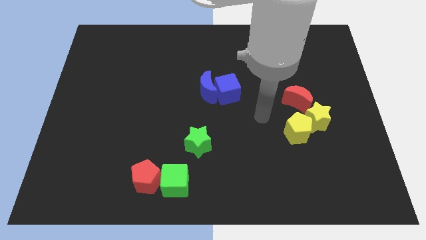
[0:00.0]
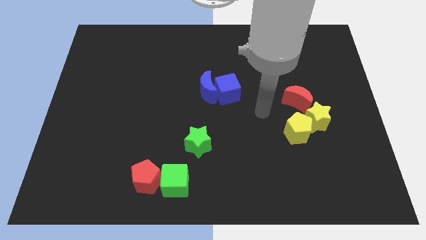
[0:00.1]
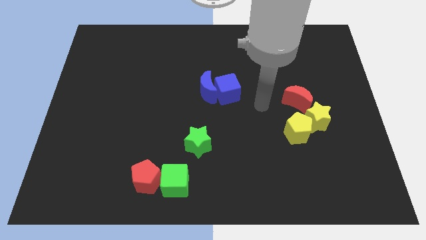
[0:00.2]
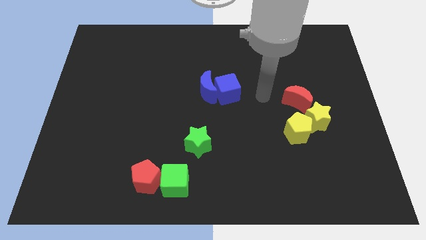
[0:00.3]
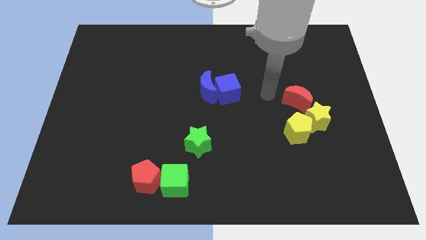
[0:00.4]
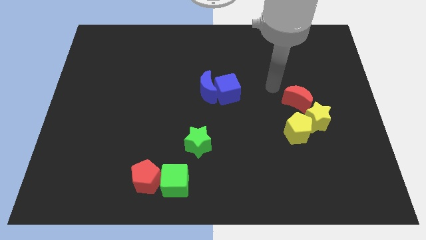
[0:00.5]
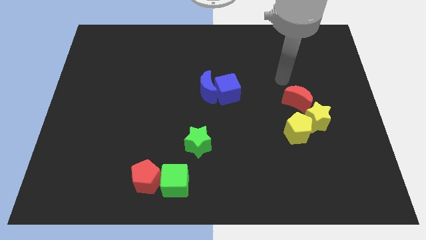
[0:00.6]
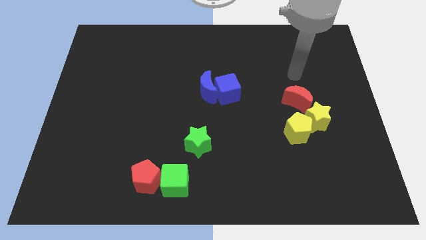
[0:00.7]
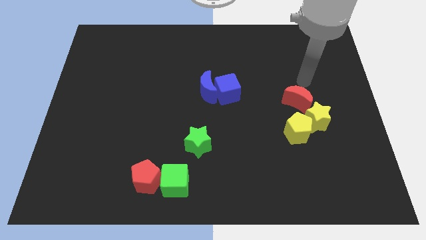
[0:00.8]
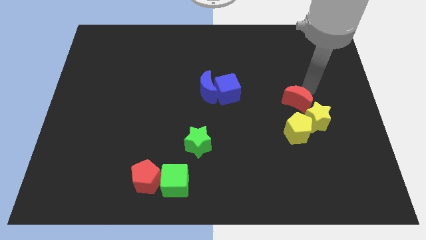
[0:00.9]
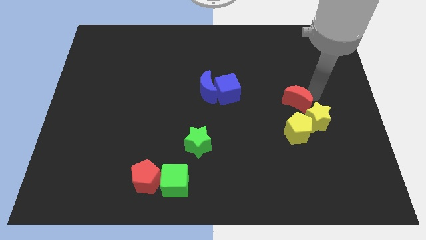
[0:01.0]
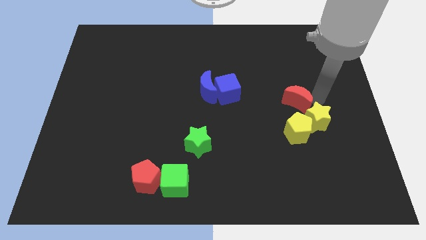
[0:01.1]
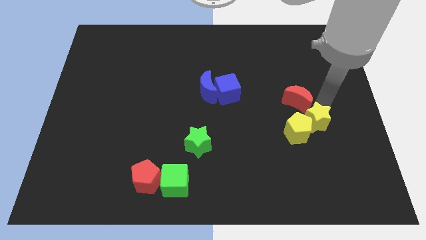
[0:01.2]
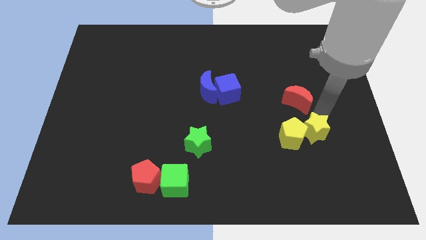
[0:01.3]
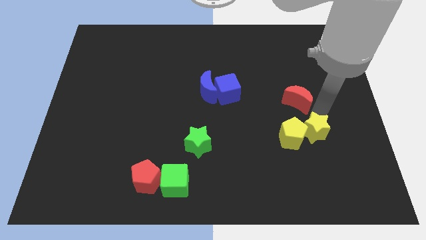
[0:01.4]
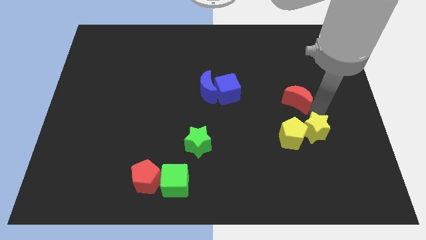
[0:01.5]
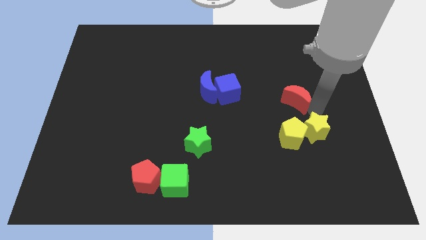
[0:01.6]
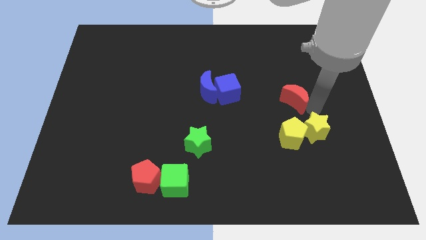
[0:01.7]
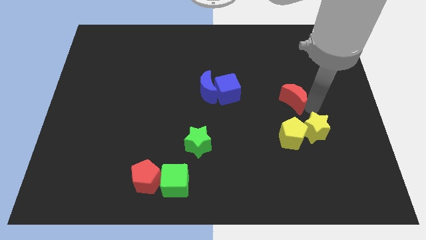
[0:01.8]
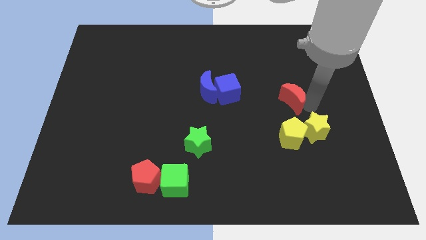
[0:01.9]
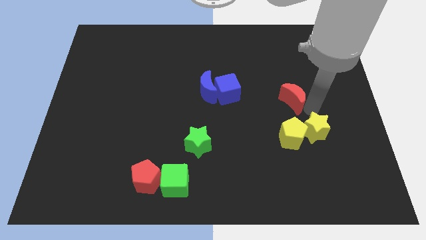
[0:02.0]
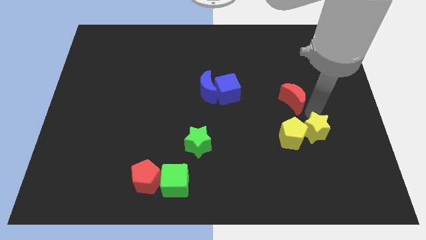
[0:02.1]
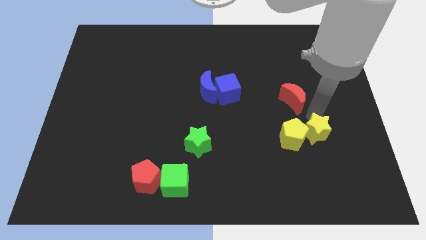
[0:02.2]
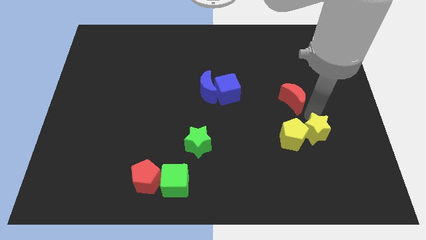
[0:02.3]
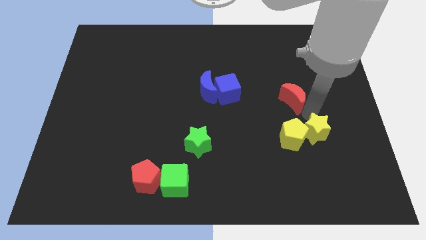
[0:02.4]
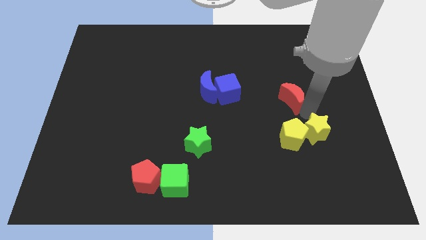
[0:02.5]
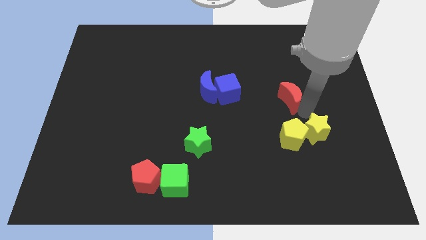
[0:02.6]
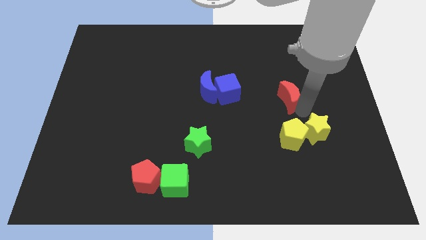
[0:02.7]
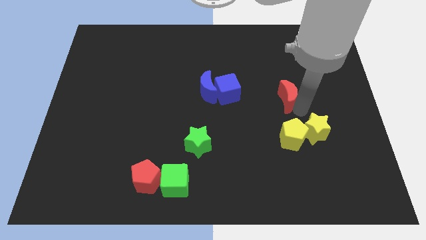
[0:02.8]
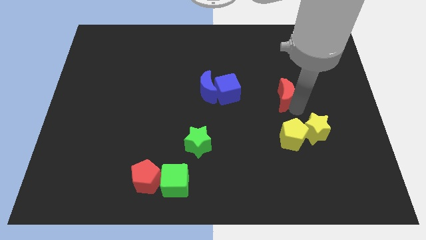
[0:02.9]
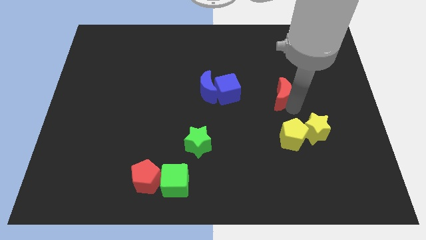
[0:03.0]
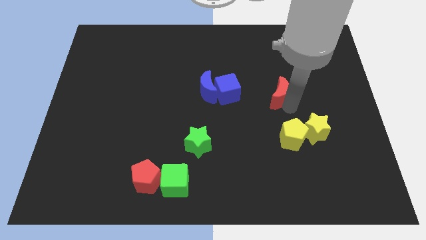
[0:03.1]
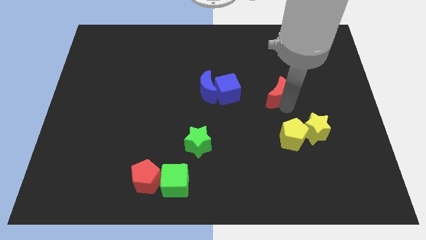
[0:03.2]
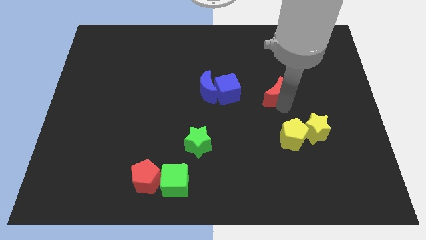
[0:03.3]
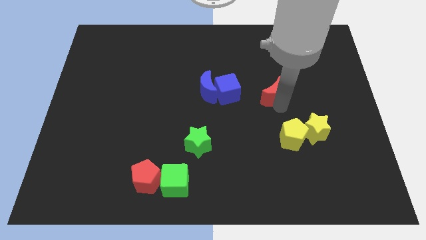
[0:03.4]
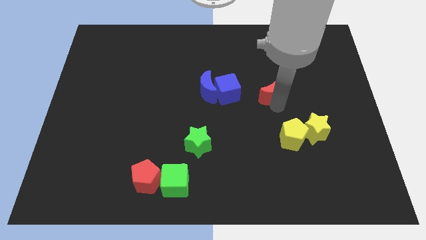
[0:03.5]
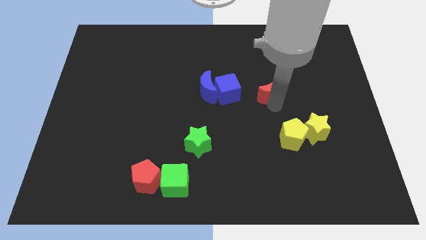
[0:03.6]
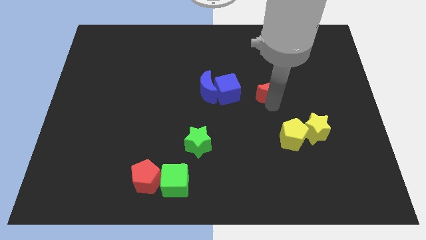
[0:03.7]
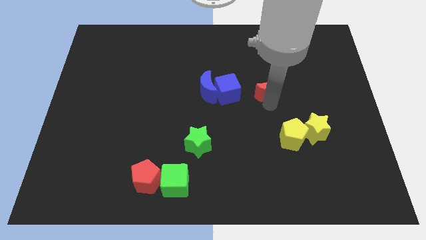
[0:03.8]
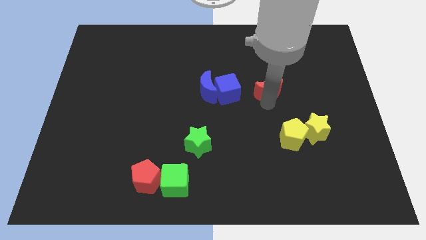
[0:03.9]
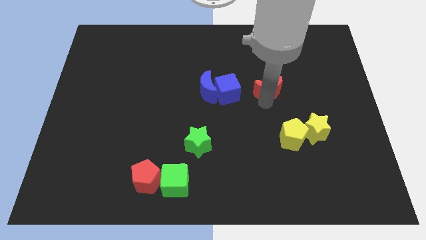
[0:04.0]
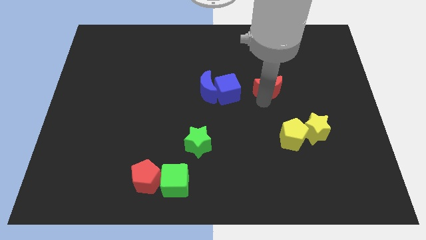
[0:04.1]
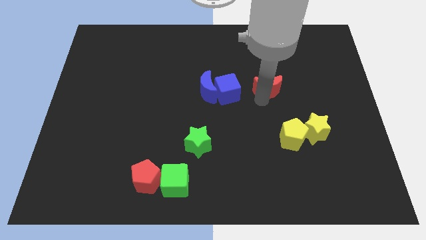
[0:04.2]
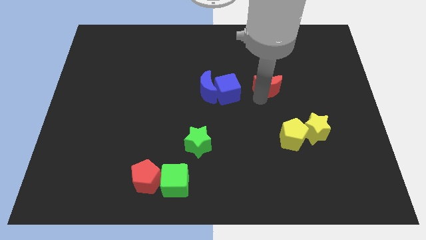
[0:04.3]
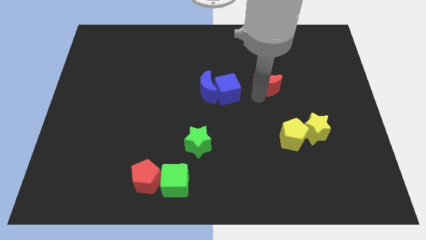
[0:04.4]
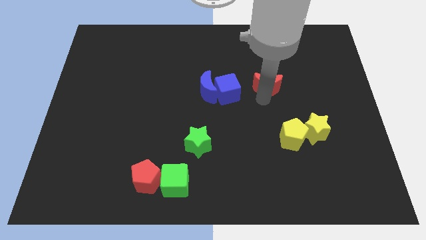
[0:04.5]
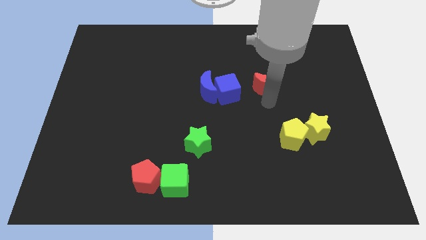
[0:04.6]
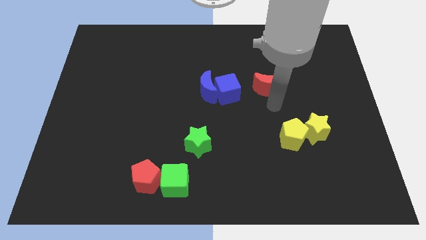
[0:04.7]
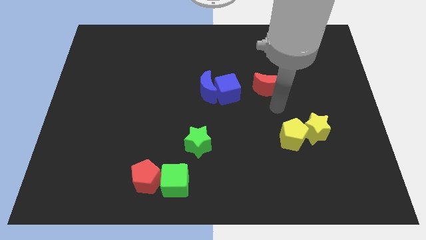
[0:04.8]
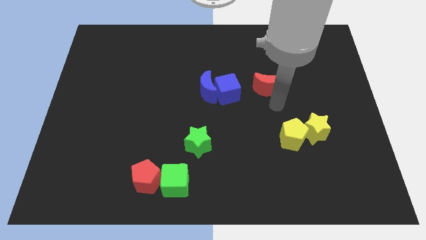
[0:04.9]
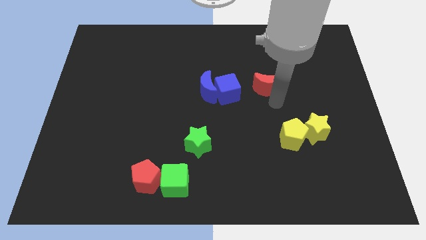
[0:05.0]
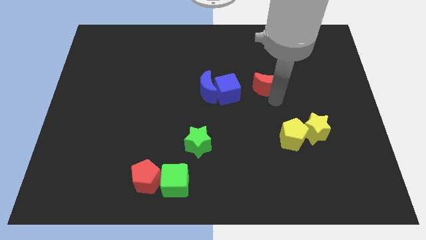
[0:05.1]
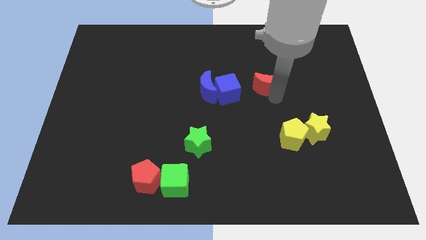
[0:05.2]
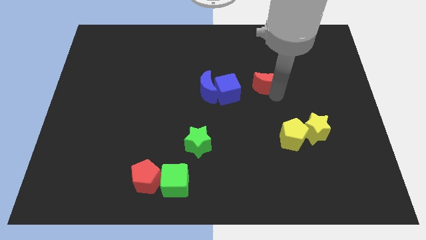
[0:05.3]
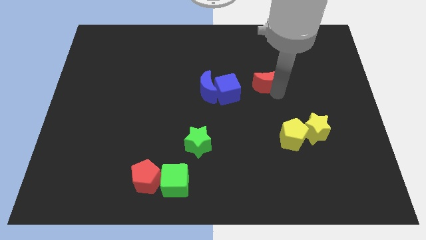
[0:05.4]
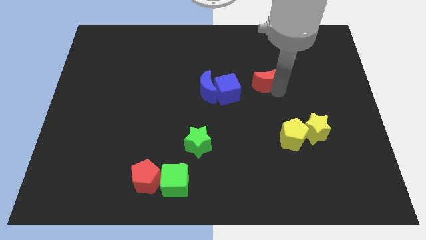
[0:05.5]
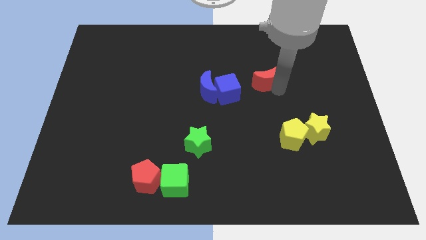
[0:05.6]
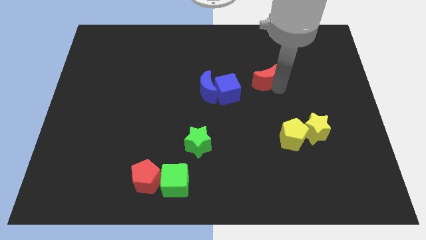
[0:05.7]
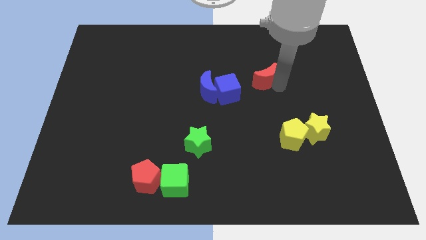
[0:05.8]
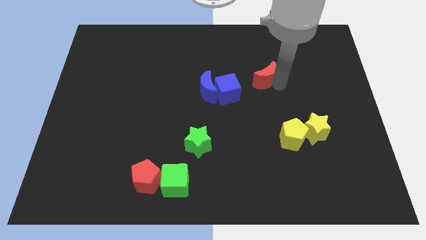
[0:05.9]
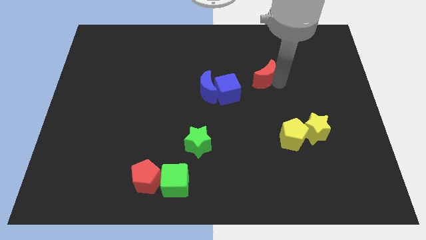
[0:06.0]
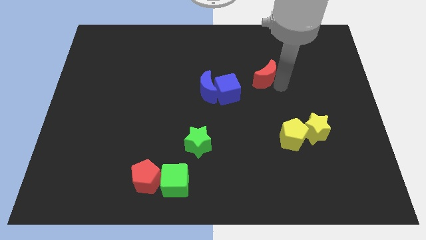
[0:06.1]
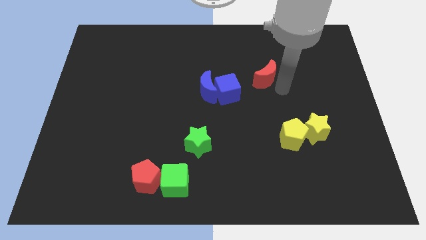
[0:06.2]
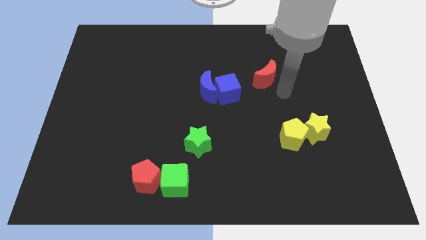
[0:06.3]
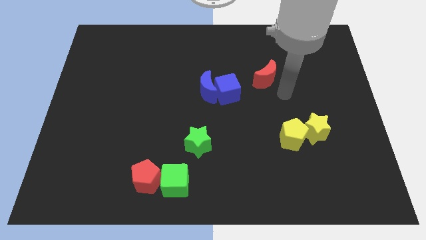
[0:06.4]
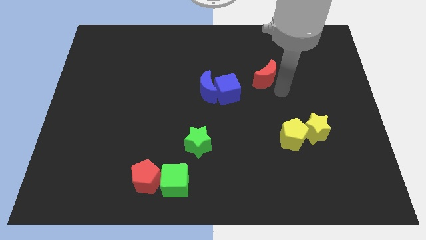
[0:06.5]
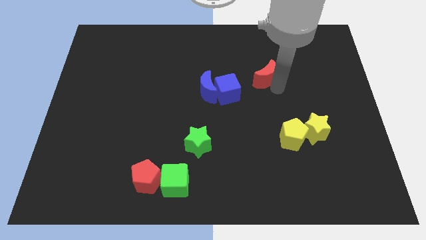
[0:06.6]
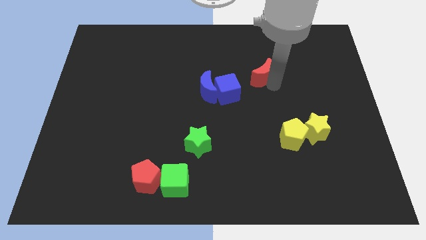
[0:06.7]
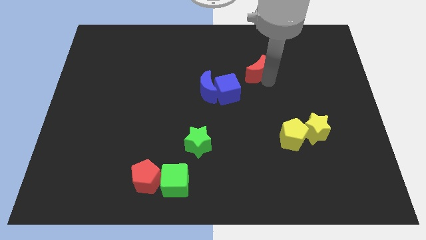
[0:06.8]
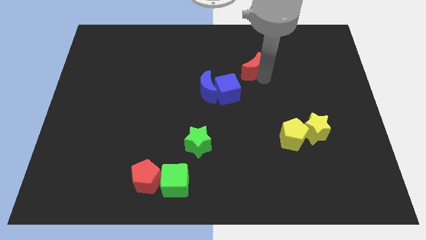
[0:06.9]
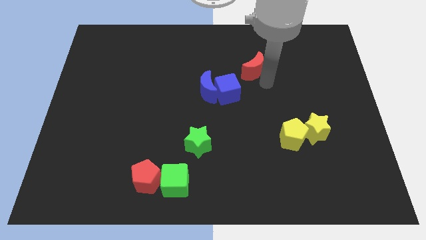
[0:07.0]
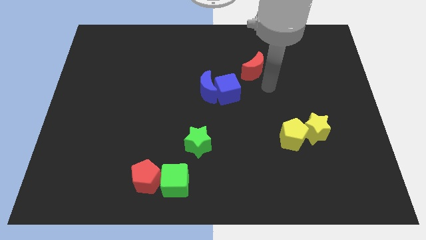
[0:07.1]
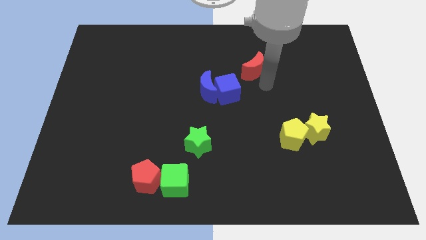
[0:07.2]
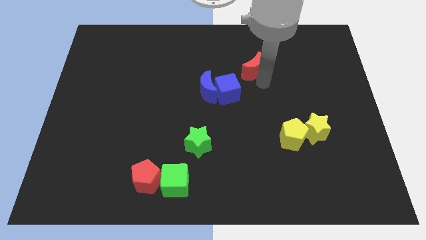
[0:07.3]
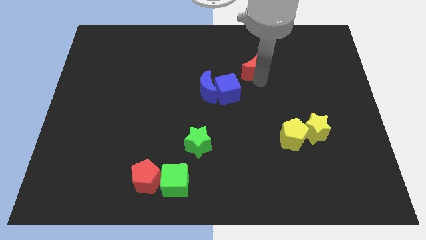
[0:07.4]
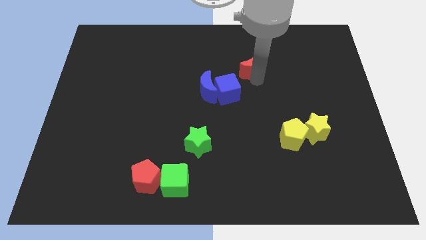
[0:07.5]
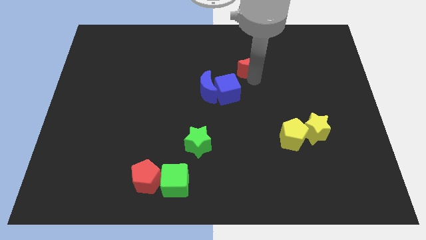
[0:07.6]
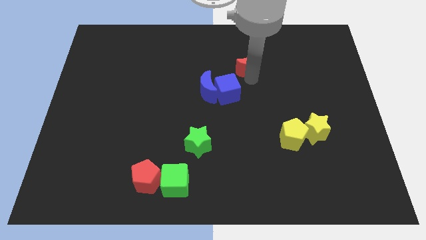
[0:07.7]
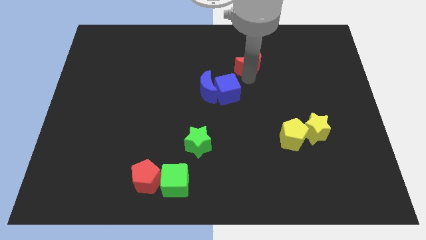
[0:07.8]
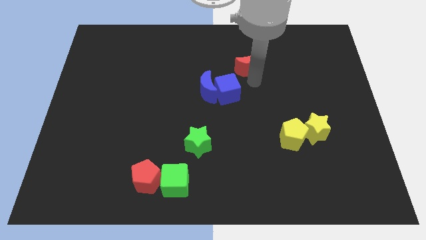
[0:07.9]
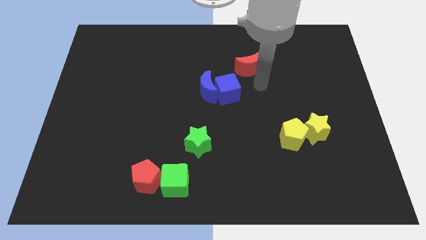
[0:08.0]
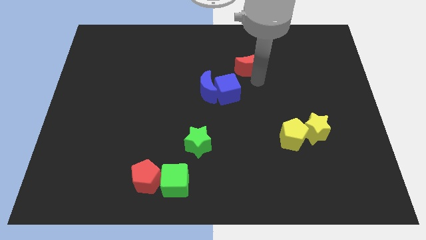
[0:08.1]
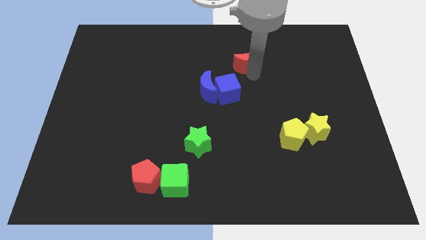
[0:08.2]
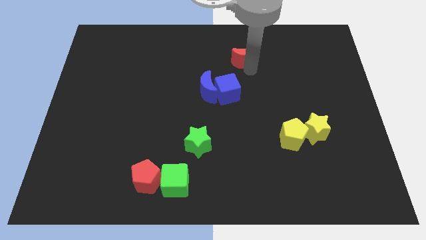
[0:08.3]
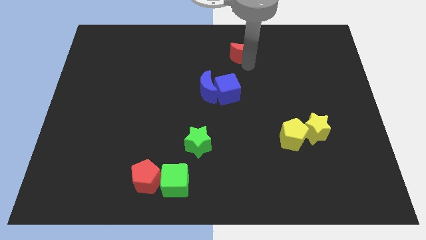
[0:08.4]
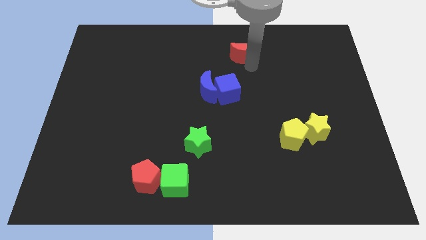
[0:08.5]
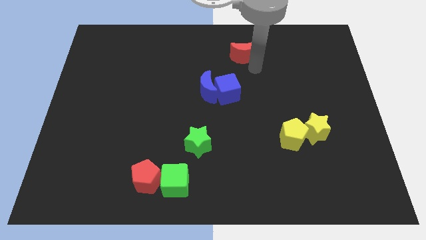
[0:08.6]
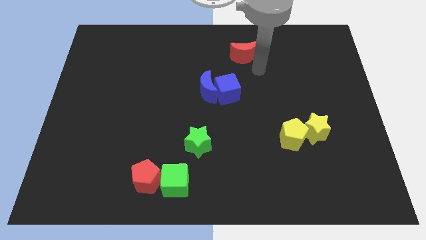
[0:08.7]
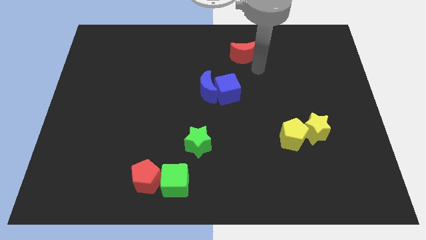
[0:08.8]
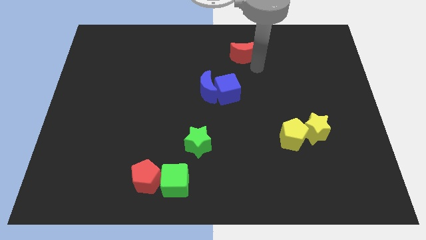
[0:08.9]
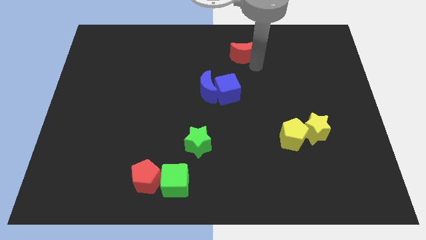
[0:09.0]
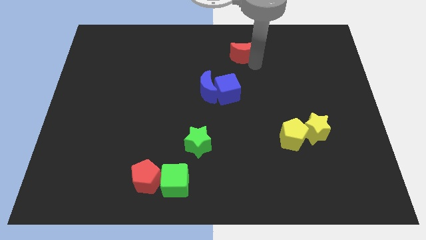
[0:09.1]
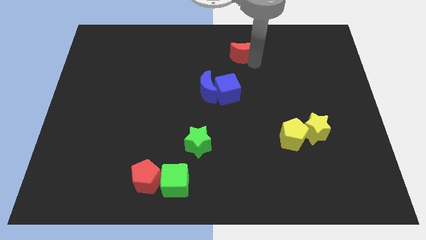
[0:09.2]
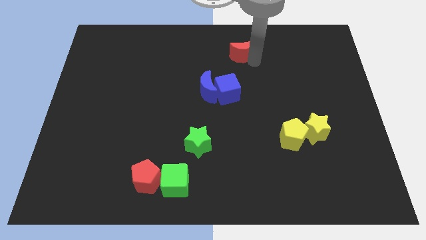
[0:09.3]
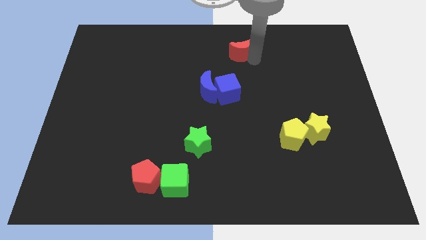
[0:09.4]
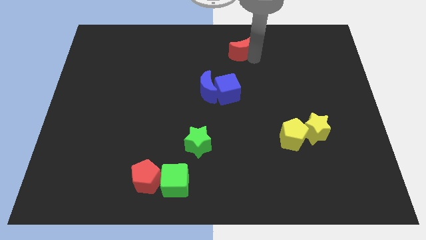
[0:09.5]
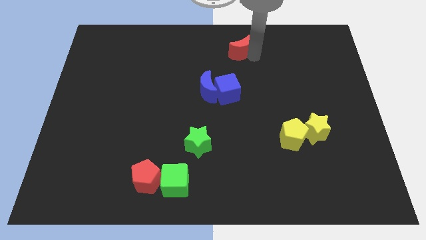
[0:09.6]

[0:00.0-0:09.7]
push the red moon to the top
